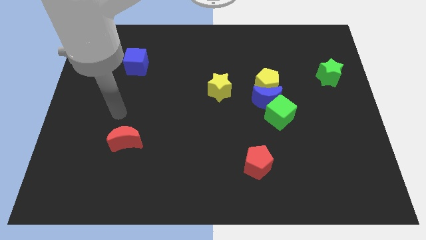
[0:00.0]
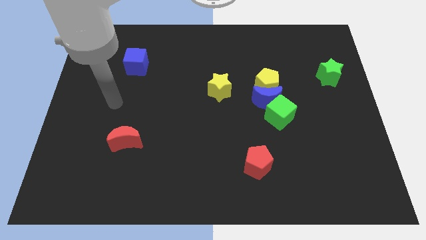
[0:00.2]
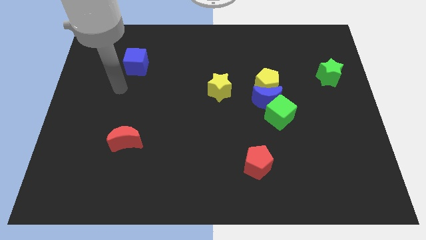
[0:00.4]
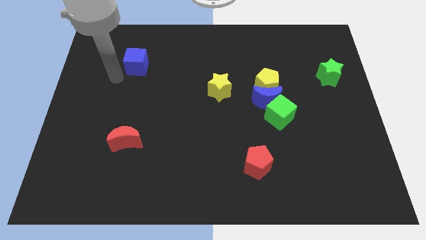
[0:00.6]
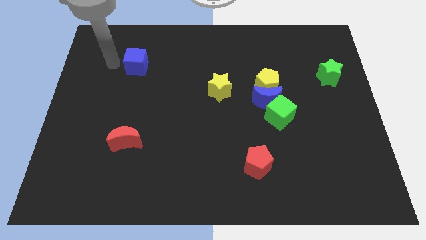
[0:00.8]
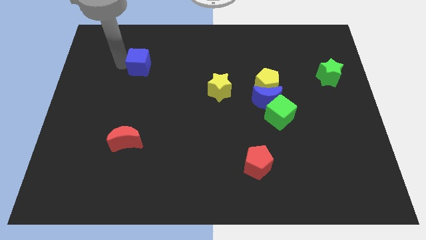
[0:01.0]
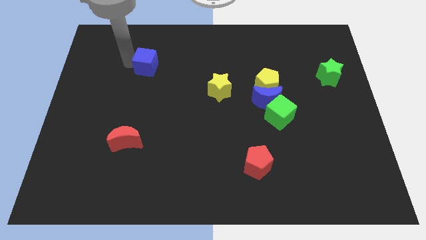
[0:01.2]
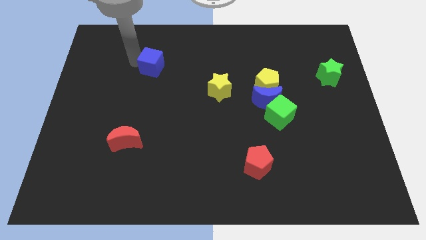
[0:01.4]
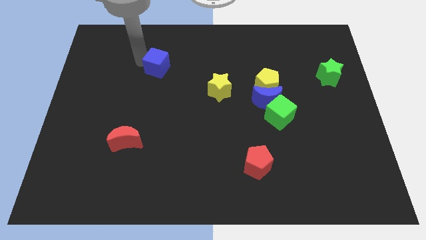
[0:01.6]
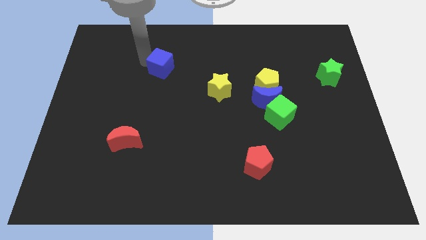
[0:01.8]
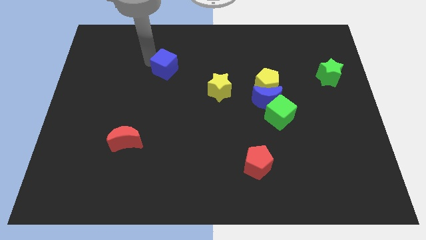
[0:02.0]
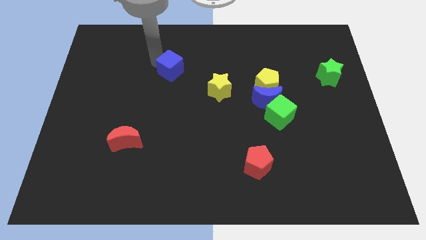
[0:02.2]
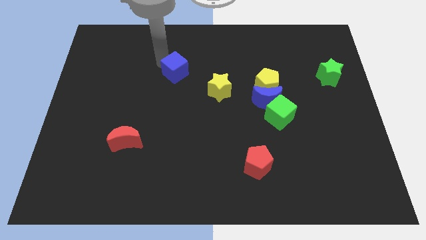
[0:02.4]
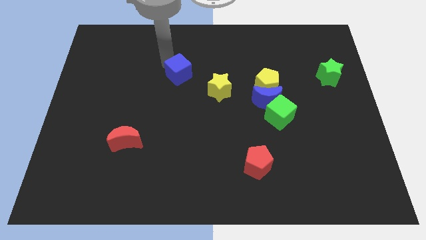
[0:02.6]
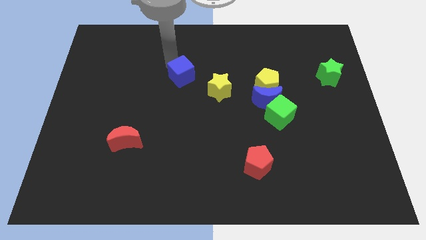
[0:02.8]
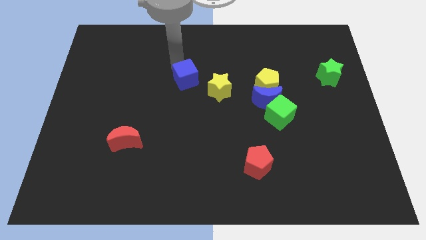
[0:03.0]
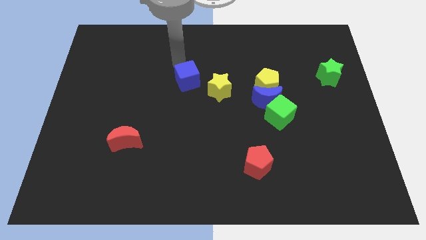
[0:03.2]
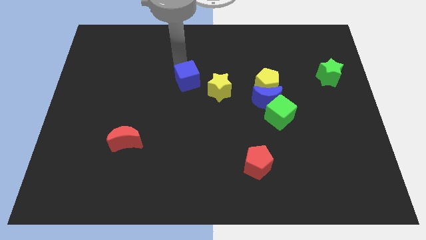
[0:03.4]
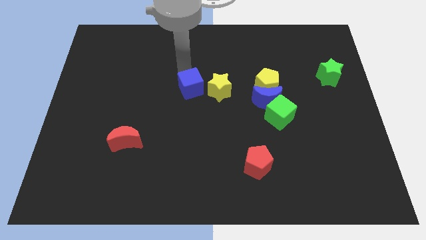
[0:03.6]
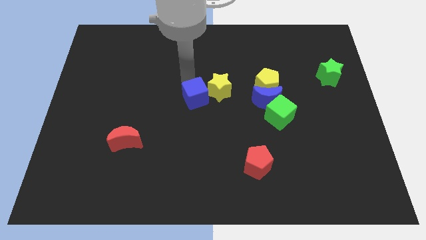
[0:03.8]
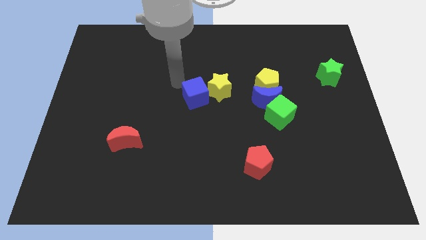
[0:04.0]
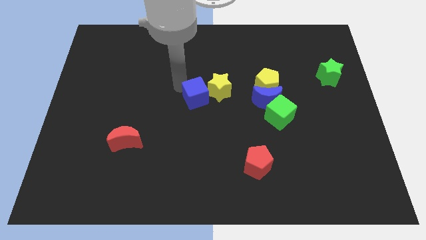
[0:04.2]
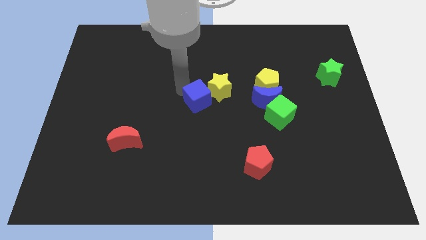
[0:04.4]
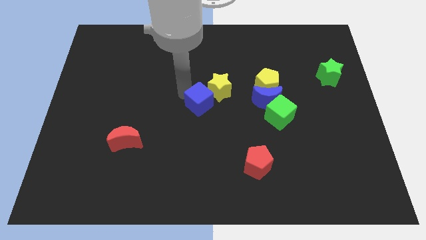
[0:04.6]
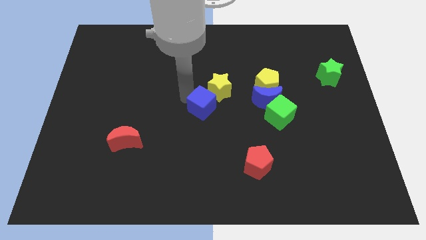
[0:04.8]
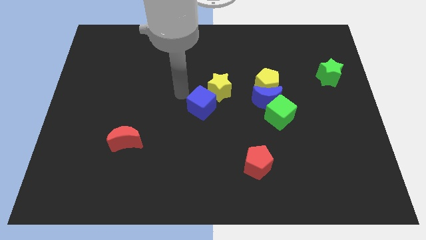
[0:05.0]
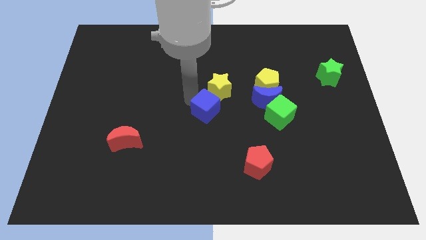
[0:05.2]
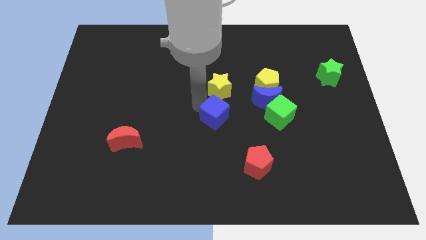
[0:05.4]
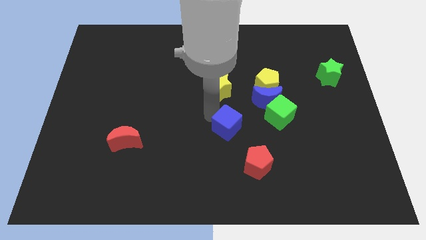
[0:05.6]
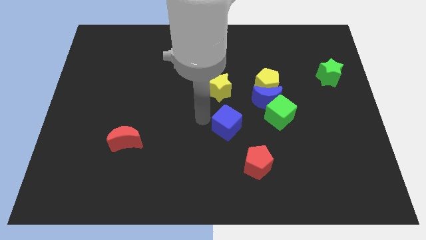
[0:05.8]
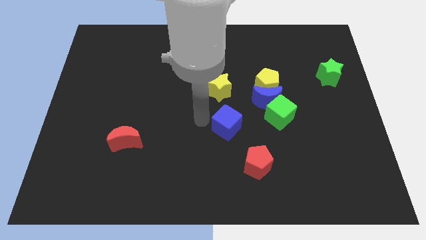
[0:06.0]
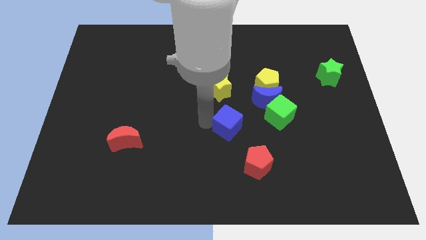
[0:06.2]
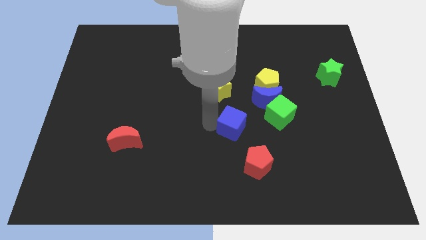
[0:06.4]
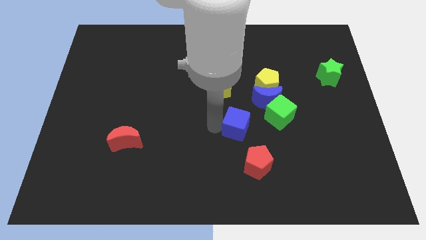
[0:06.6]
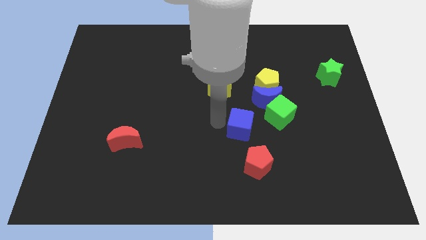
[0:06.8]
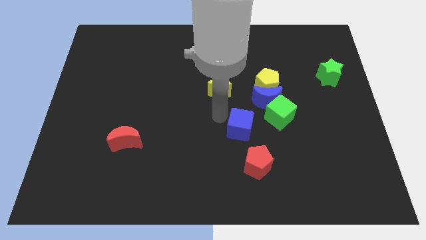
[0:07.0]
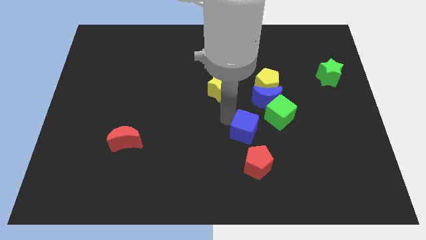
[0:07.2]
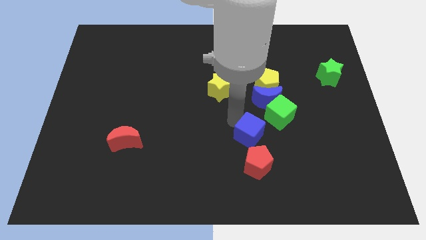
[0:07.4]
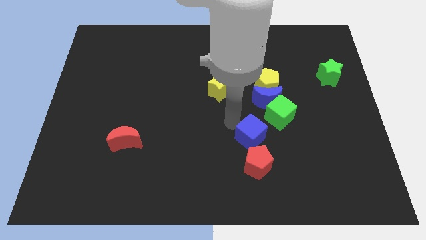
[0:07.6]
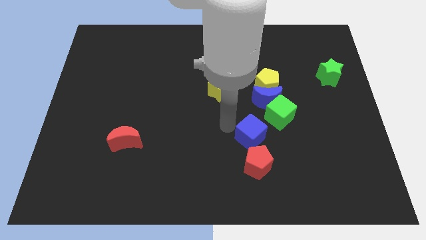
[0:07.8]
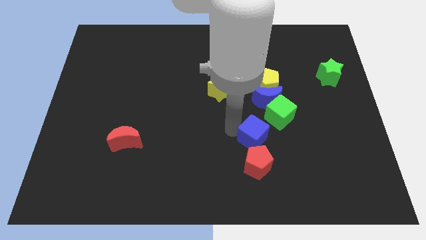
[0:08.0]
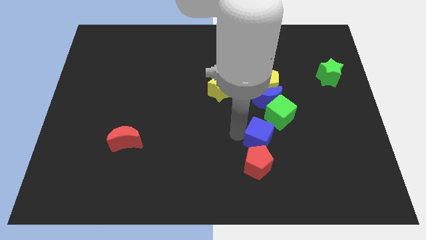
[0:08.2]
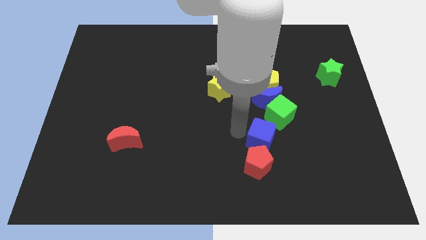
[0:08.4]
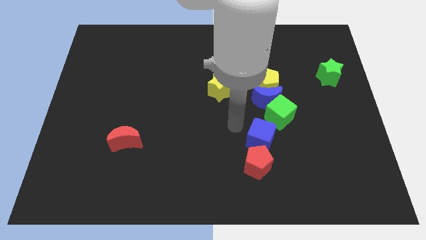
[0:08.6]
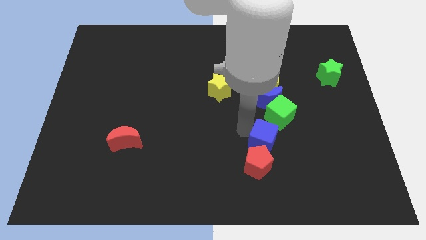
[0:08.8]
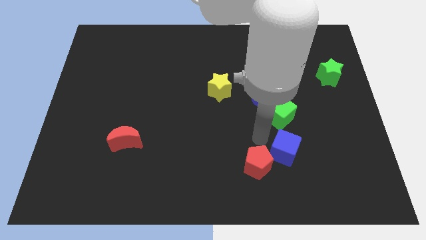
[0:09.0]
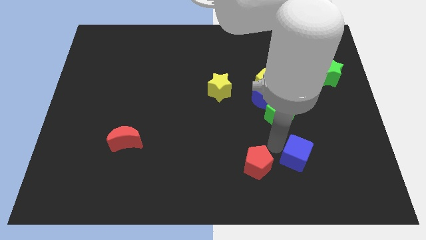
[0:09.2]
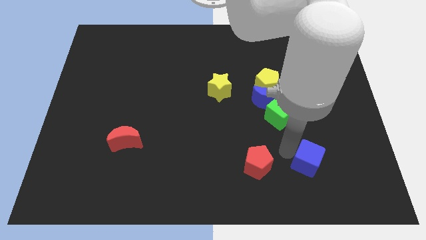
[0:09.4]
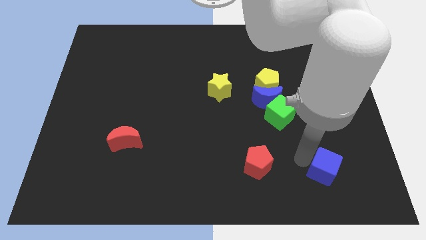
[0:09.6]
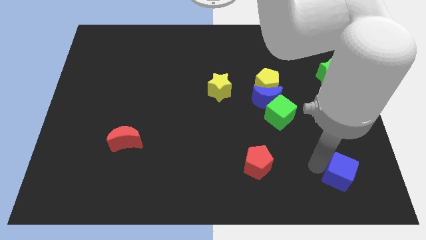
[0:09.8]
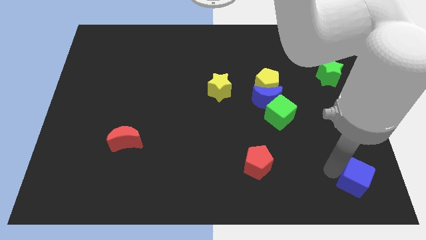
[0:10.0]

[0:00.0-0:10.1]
push the blue cube to the lower right corner

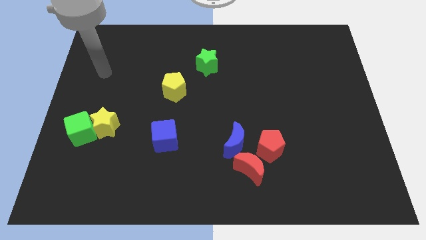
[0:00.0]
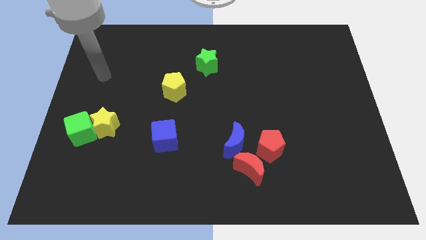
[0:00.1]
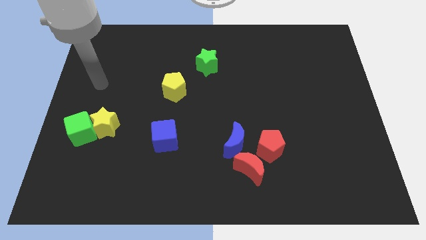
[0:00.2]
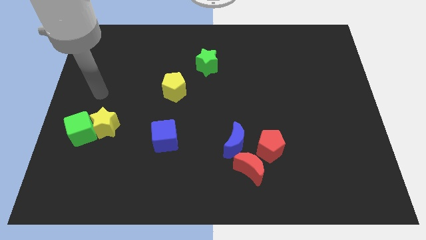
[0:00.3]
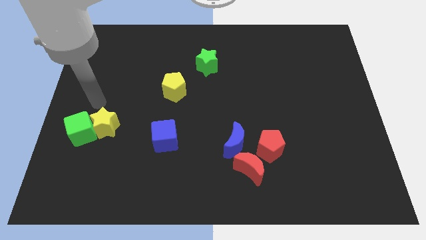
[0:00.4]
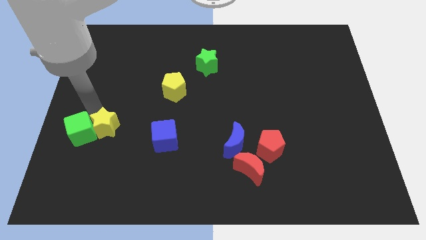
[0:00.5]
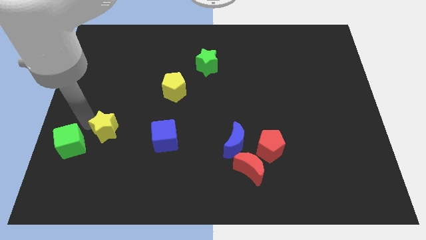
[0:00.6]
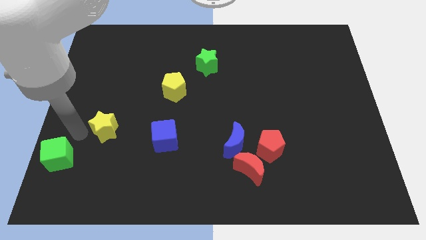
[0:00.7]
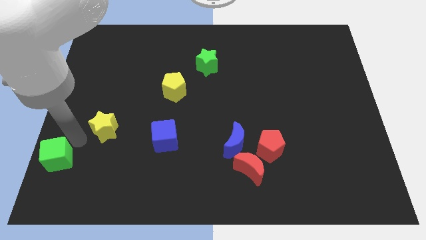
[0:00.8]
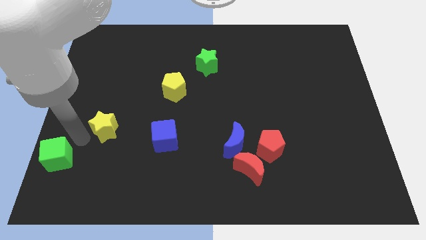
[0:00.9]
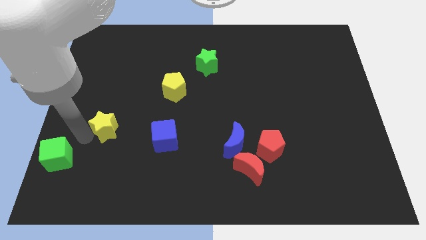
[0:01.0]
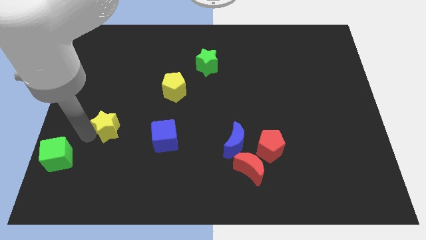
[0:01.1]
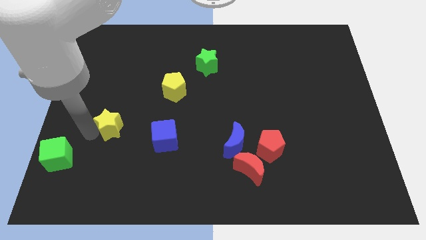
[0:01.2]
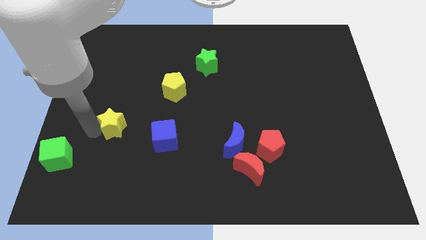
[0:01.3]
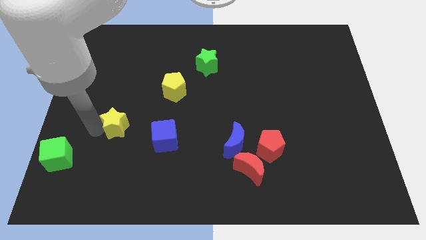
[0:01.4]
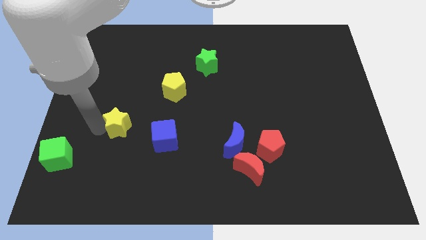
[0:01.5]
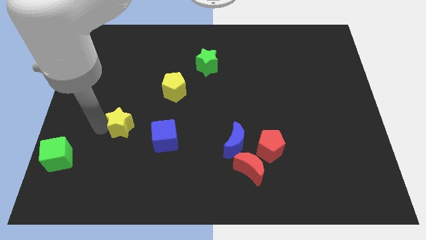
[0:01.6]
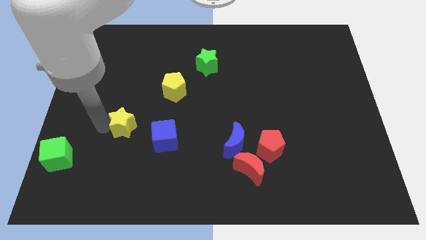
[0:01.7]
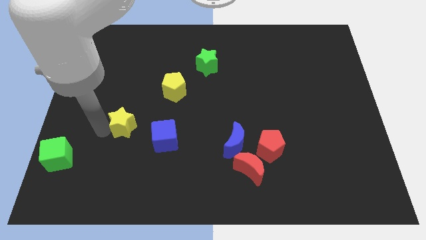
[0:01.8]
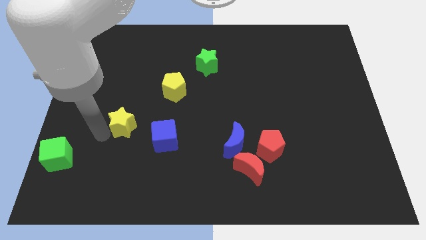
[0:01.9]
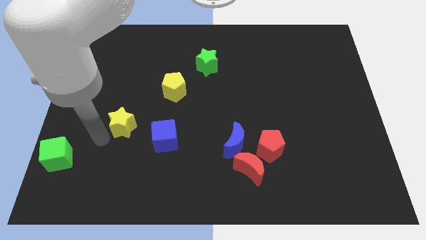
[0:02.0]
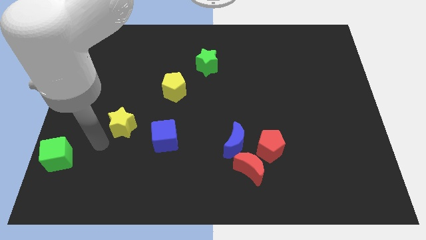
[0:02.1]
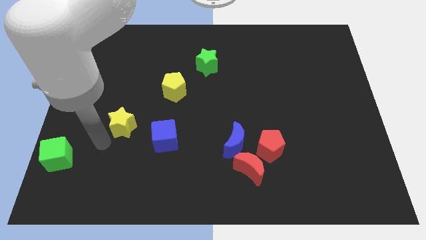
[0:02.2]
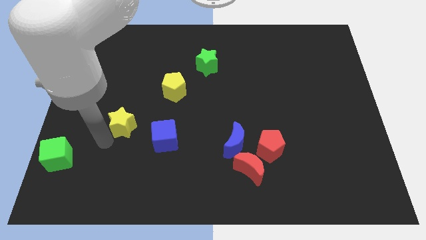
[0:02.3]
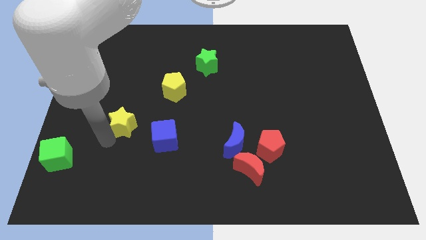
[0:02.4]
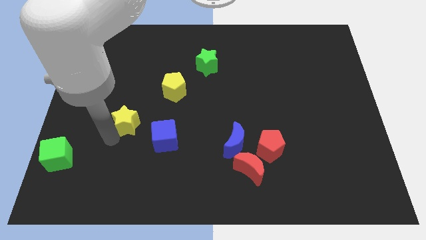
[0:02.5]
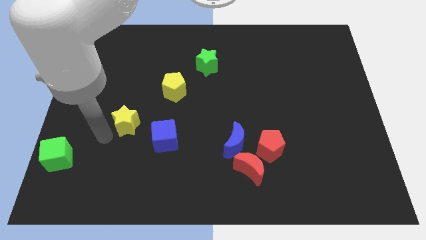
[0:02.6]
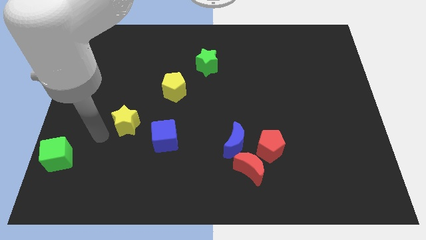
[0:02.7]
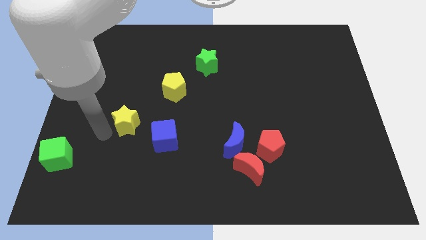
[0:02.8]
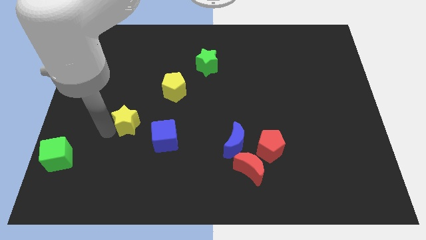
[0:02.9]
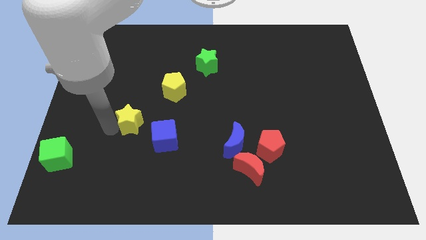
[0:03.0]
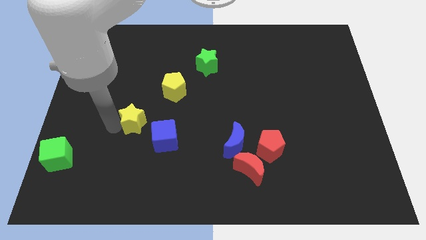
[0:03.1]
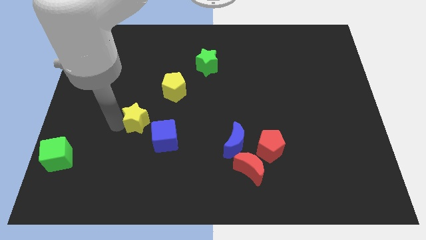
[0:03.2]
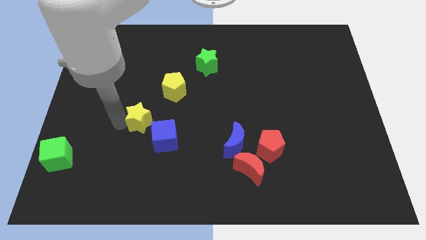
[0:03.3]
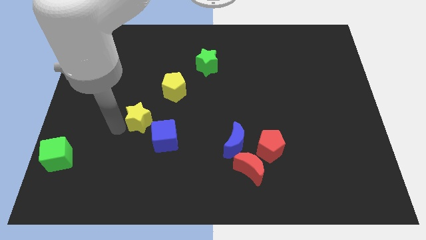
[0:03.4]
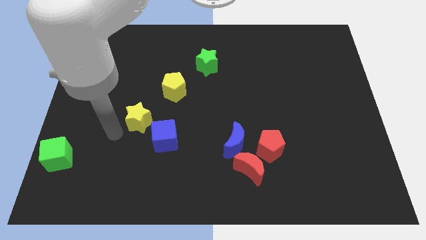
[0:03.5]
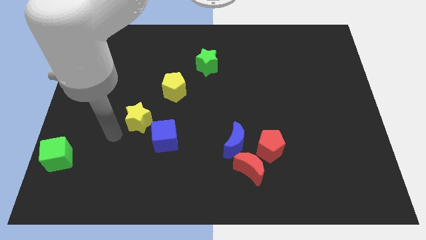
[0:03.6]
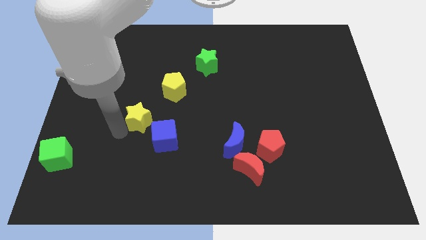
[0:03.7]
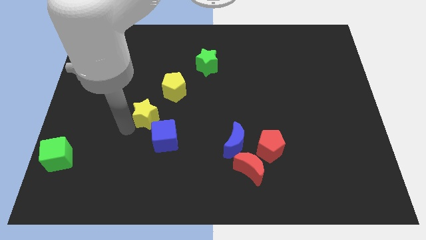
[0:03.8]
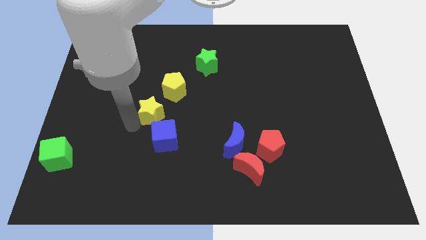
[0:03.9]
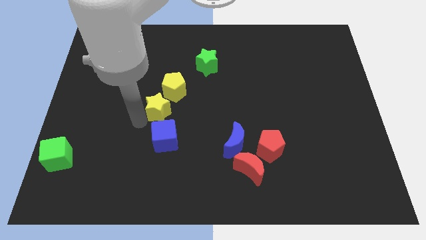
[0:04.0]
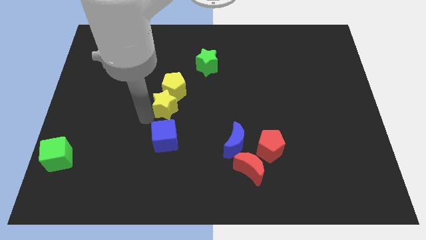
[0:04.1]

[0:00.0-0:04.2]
put the yellow star to the center
